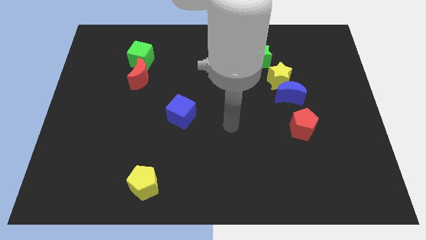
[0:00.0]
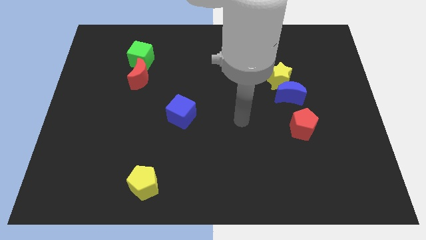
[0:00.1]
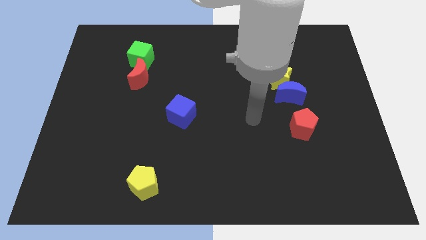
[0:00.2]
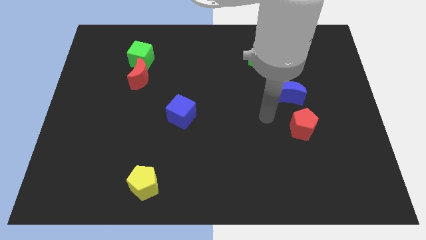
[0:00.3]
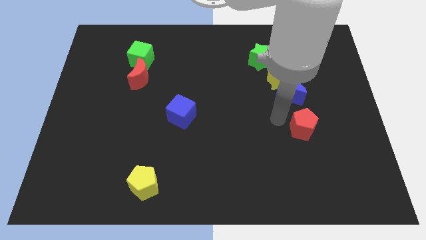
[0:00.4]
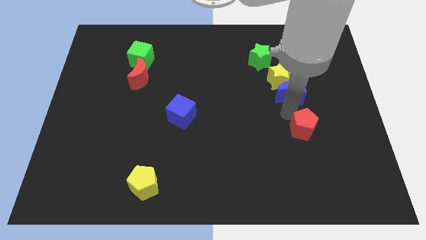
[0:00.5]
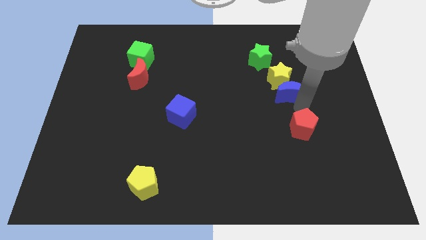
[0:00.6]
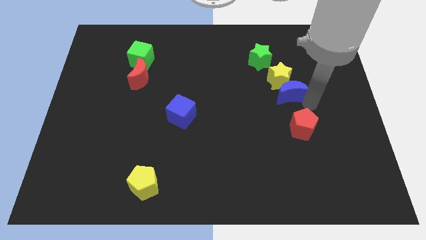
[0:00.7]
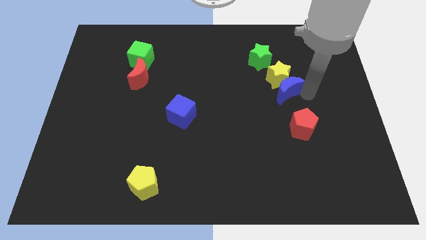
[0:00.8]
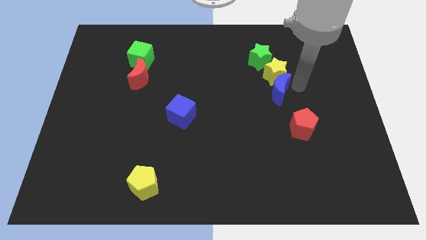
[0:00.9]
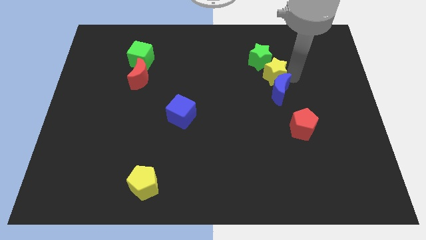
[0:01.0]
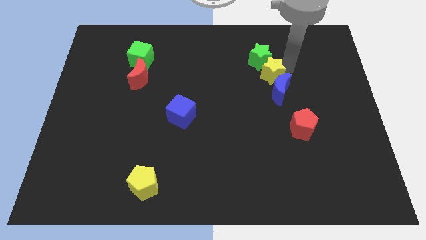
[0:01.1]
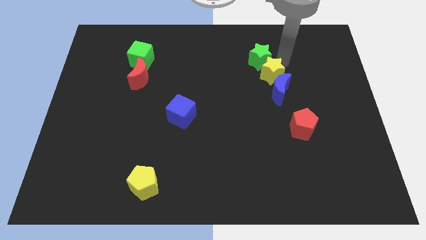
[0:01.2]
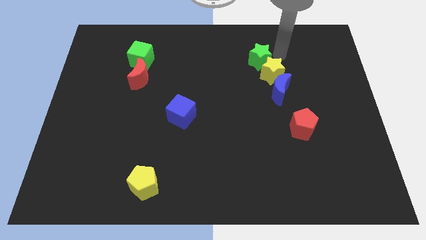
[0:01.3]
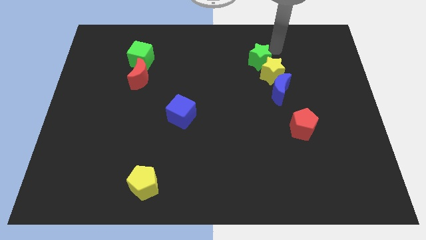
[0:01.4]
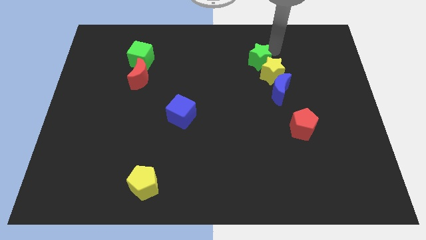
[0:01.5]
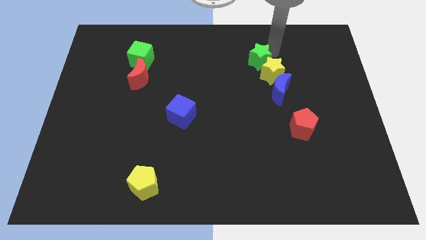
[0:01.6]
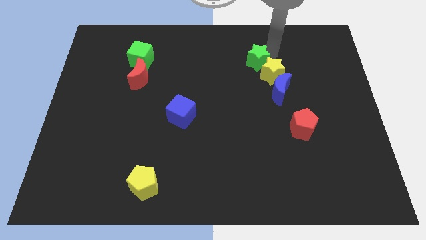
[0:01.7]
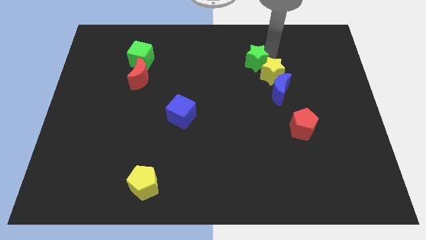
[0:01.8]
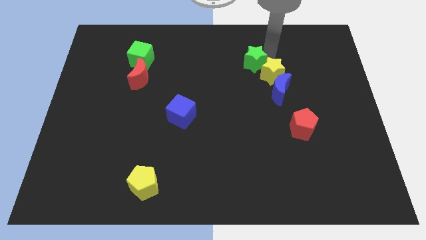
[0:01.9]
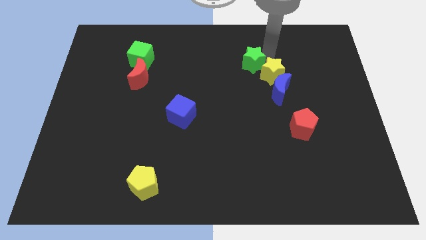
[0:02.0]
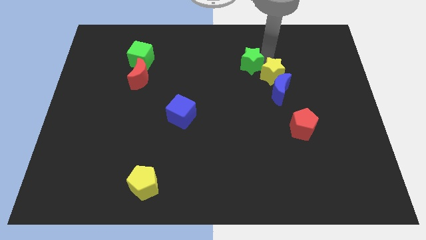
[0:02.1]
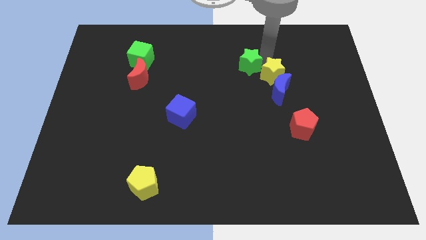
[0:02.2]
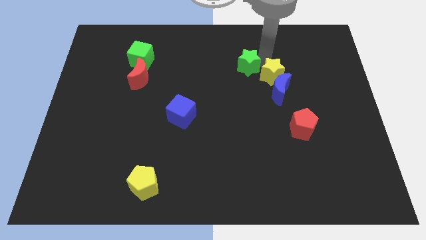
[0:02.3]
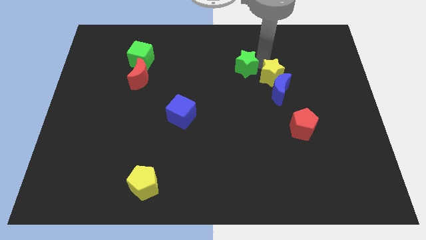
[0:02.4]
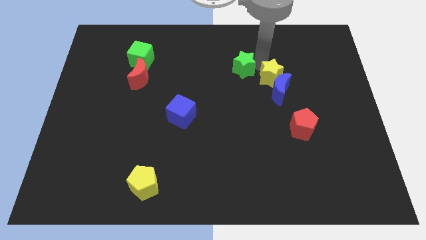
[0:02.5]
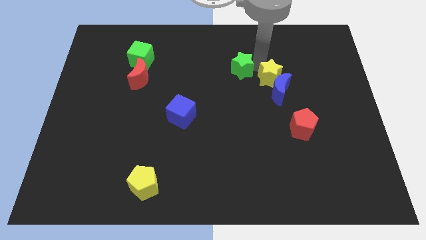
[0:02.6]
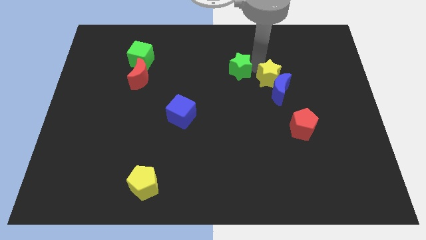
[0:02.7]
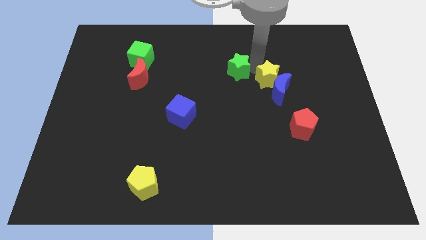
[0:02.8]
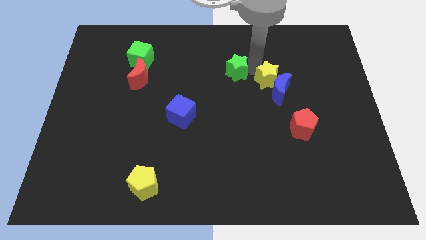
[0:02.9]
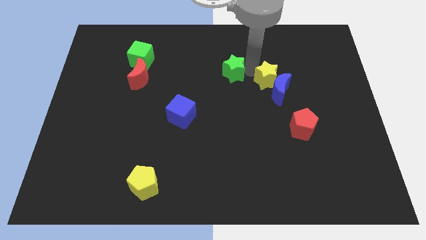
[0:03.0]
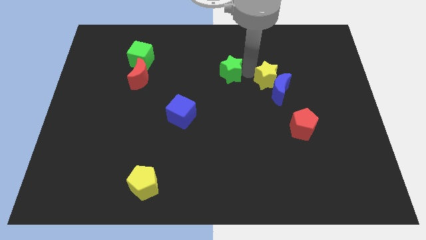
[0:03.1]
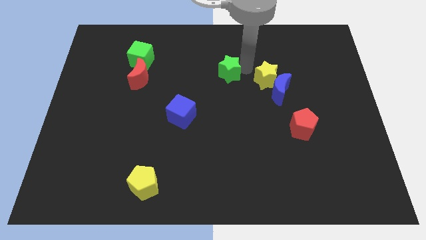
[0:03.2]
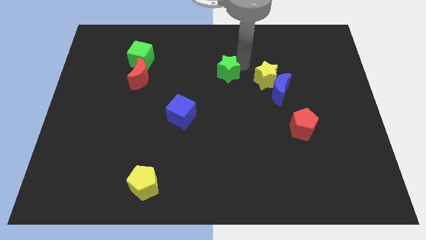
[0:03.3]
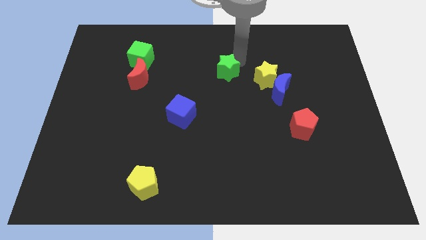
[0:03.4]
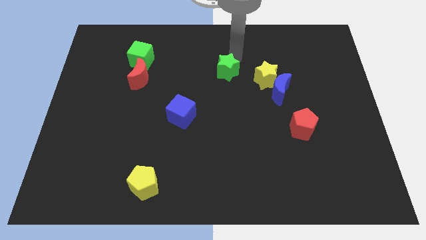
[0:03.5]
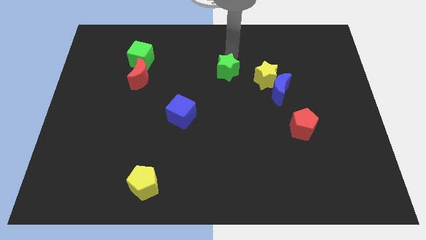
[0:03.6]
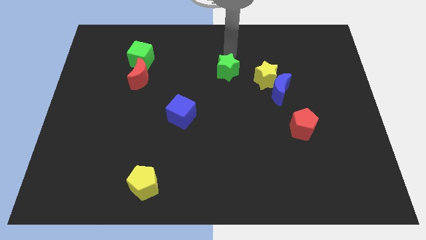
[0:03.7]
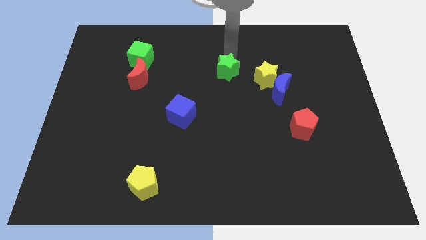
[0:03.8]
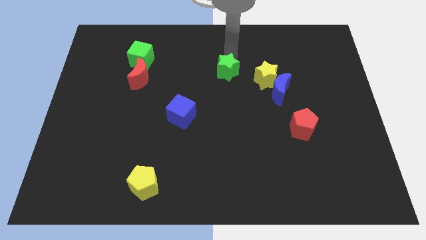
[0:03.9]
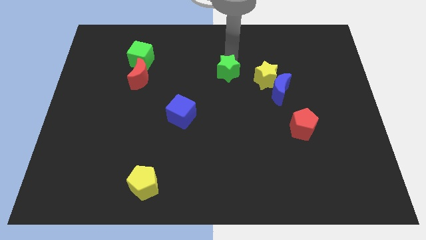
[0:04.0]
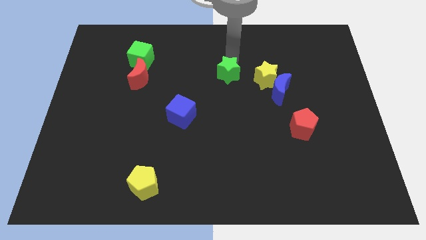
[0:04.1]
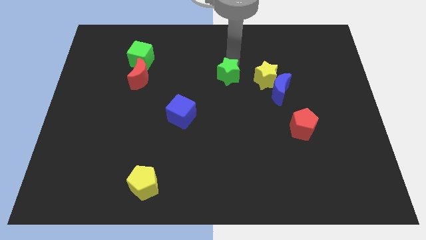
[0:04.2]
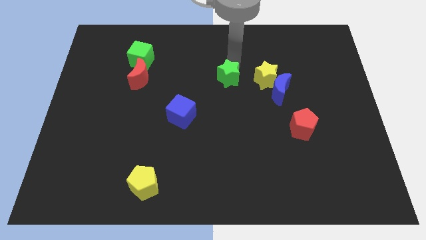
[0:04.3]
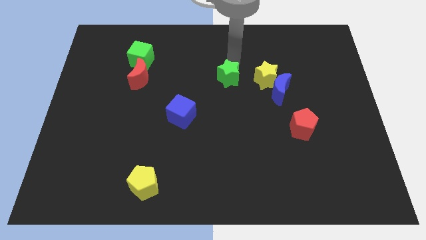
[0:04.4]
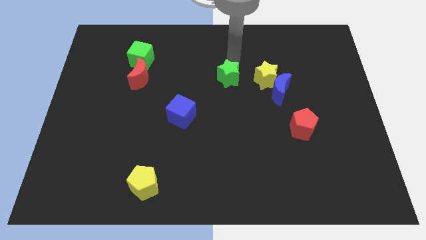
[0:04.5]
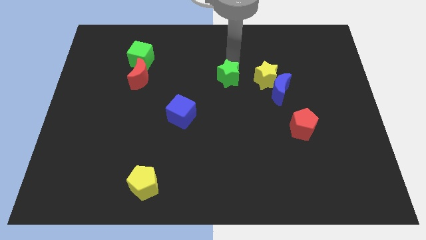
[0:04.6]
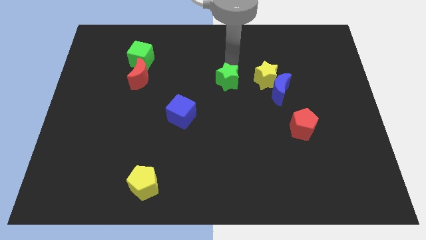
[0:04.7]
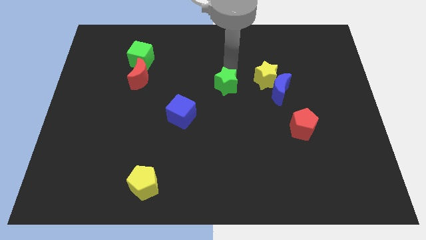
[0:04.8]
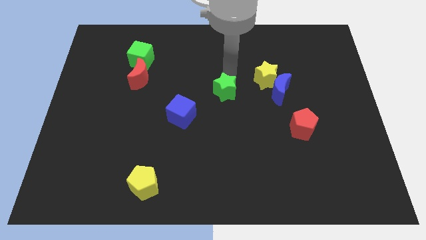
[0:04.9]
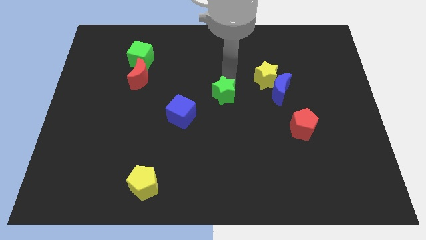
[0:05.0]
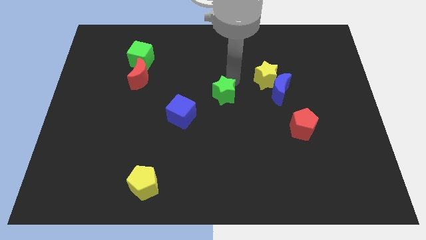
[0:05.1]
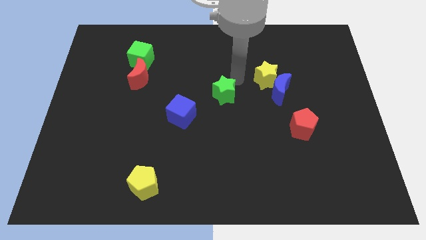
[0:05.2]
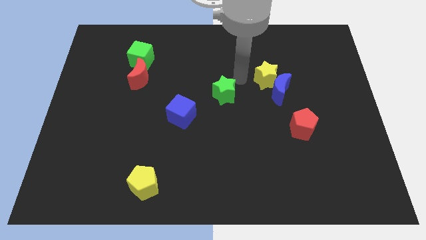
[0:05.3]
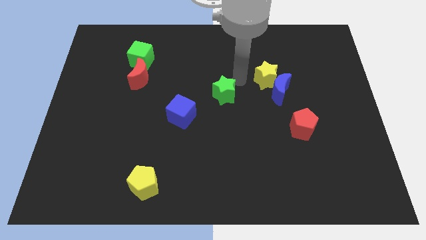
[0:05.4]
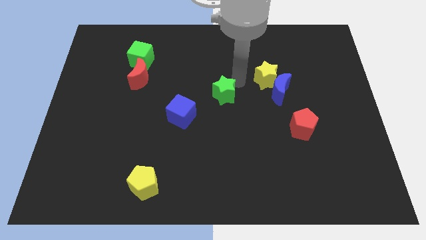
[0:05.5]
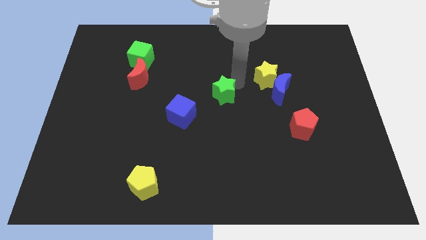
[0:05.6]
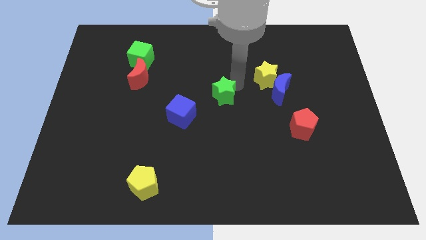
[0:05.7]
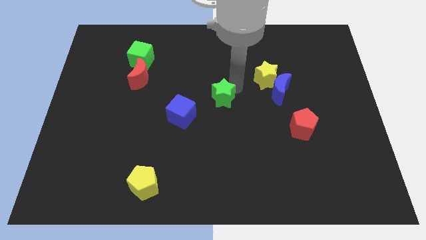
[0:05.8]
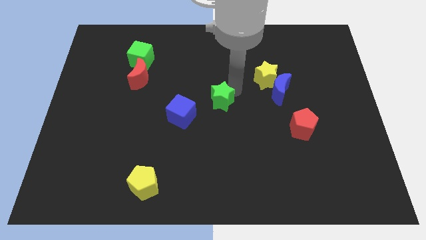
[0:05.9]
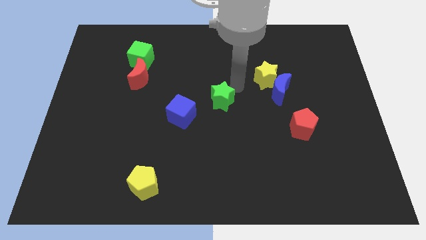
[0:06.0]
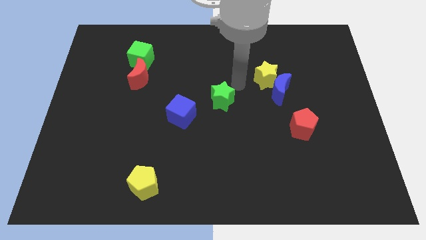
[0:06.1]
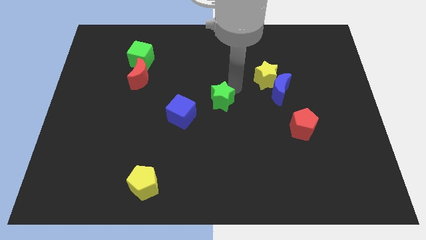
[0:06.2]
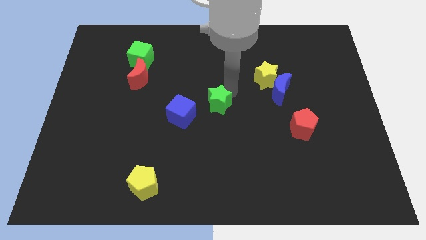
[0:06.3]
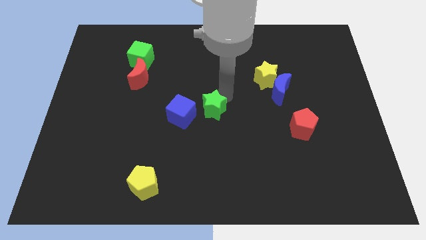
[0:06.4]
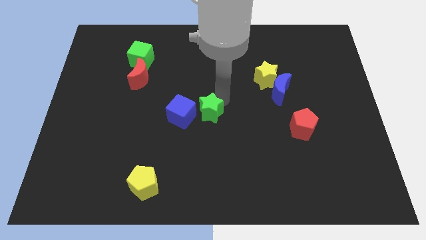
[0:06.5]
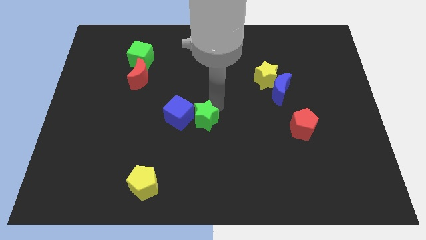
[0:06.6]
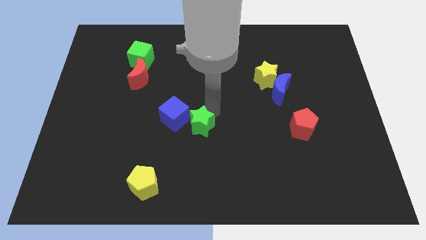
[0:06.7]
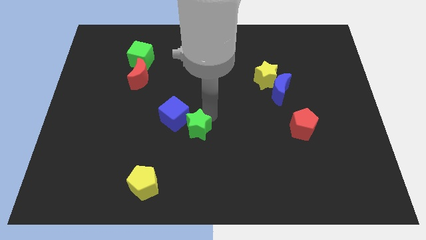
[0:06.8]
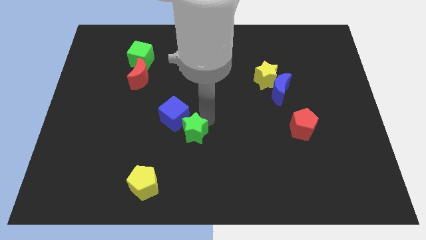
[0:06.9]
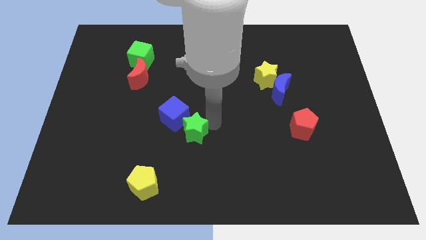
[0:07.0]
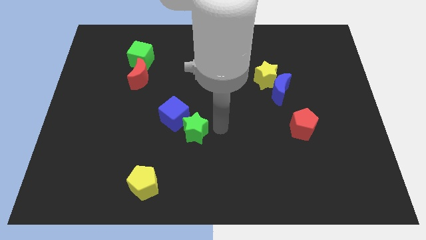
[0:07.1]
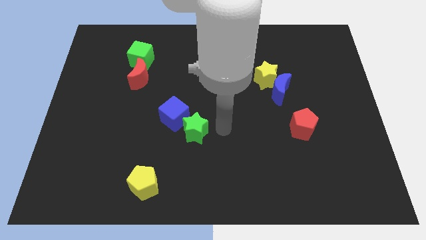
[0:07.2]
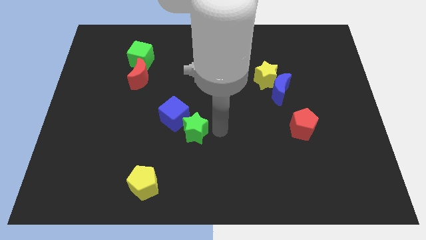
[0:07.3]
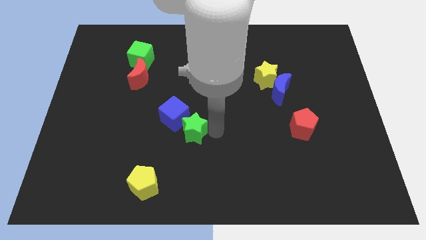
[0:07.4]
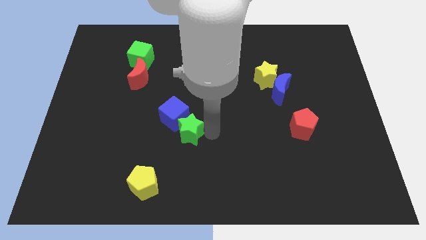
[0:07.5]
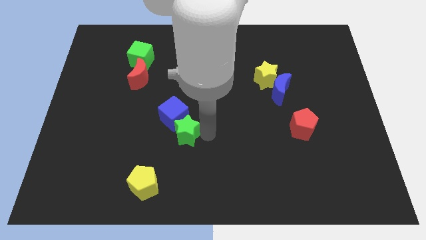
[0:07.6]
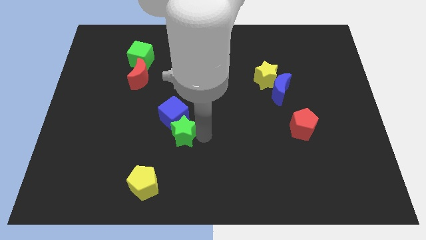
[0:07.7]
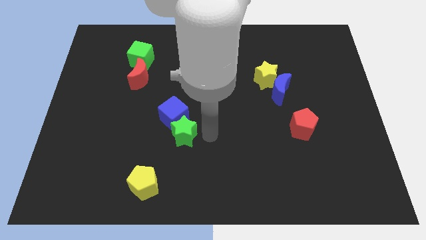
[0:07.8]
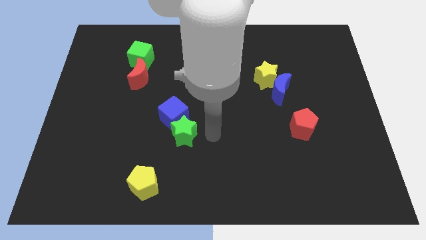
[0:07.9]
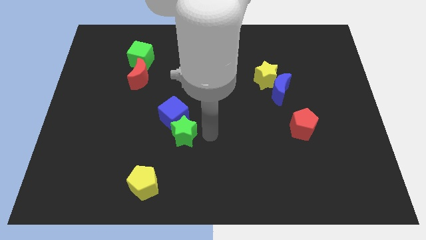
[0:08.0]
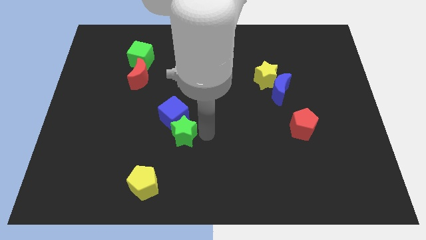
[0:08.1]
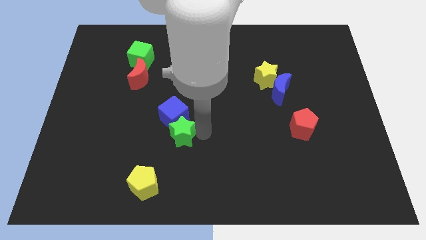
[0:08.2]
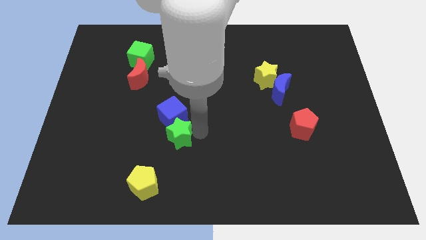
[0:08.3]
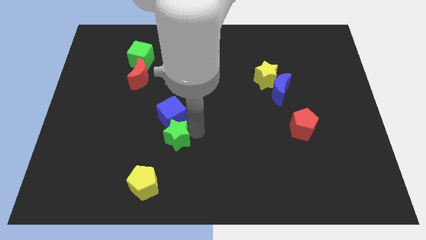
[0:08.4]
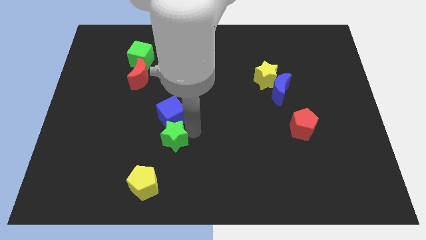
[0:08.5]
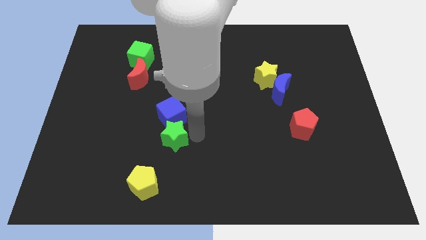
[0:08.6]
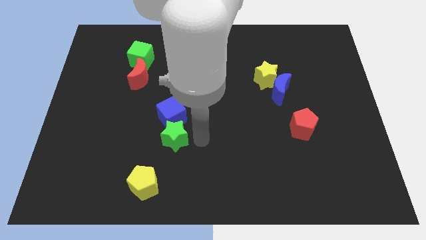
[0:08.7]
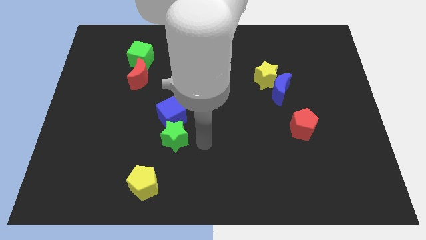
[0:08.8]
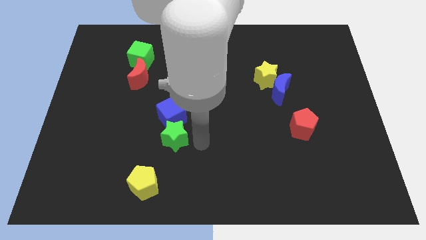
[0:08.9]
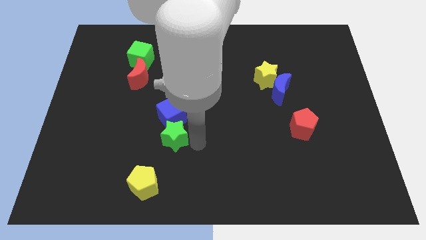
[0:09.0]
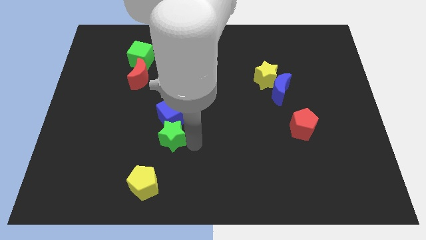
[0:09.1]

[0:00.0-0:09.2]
slide the green star diagonally down and to the left of the blue cube
